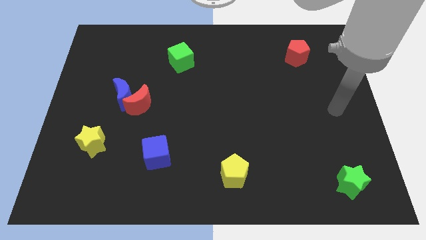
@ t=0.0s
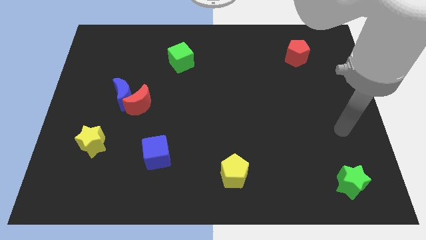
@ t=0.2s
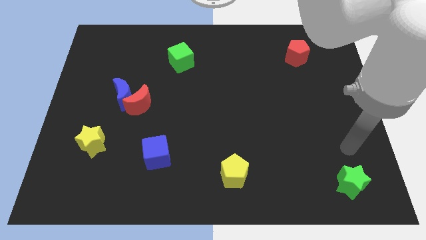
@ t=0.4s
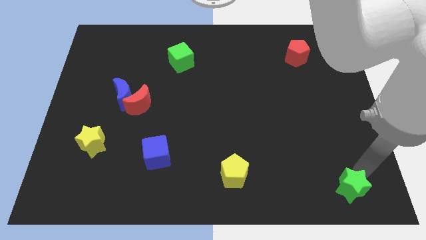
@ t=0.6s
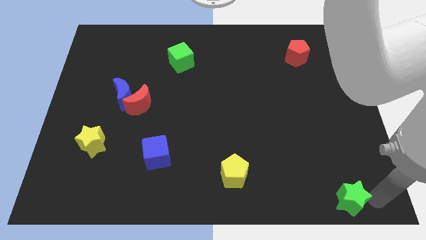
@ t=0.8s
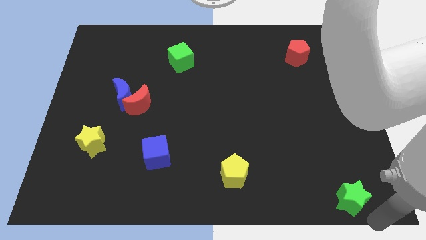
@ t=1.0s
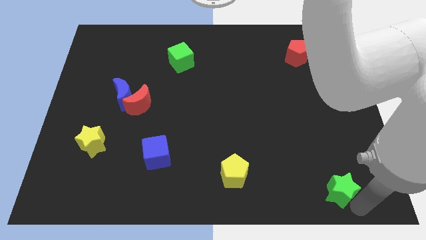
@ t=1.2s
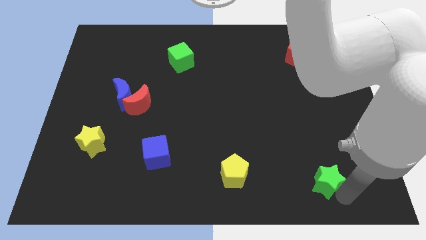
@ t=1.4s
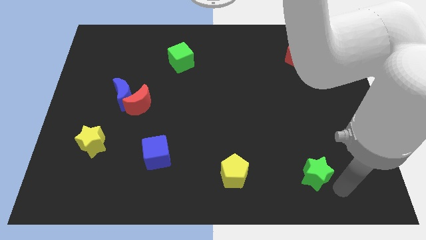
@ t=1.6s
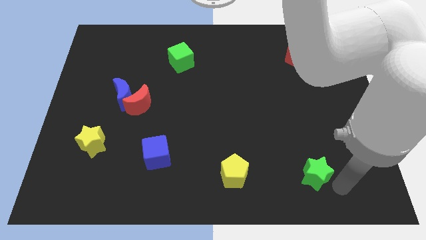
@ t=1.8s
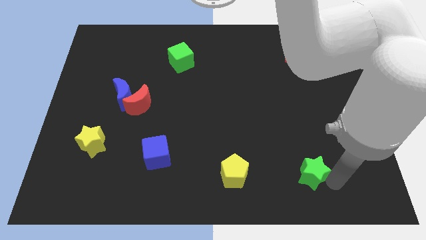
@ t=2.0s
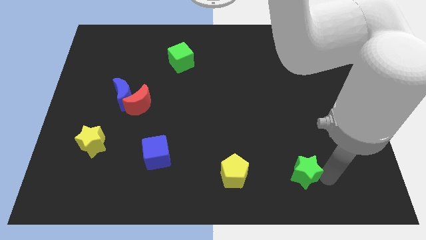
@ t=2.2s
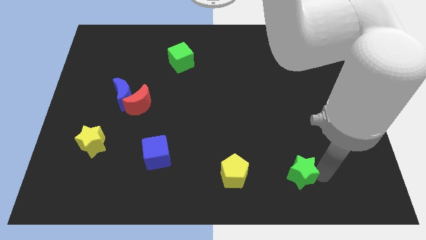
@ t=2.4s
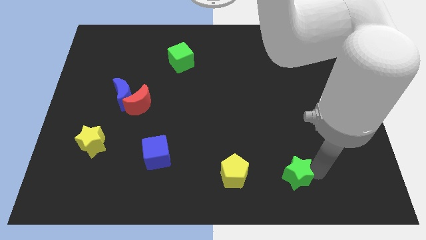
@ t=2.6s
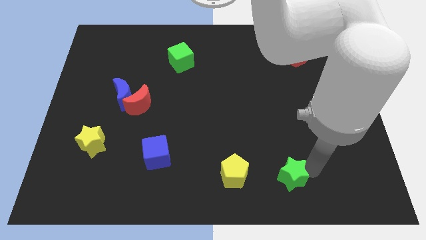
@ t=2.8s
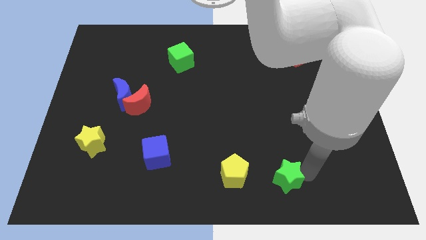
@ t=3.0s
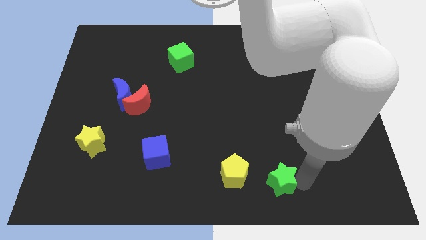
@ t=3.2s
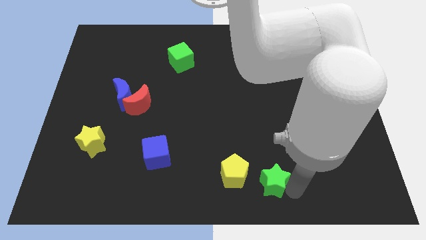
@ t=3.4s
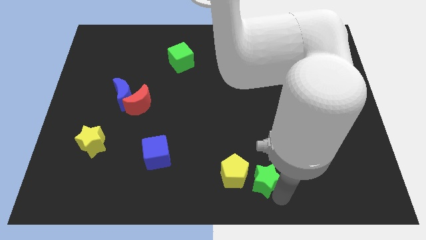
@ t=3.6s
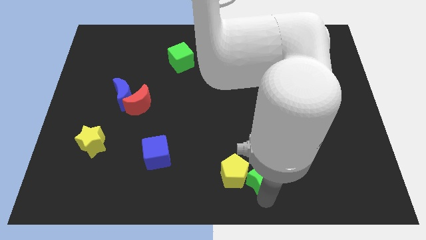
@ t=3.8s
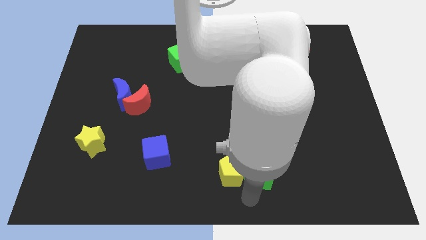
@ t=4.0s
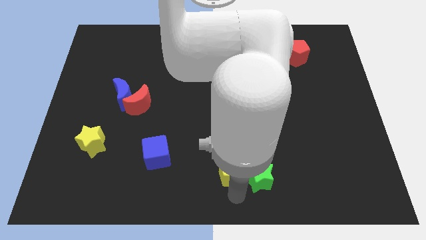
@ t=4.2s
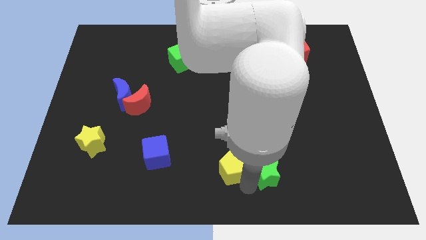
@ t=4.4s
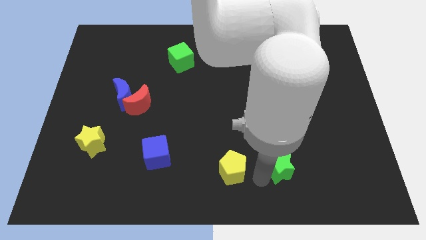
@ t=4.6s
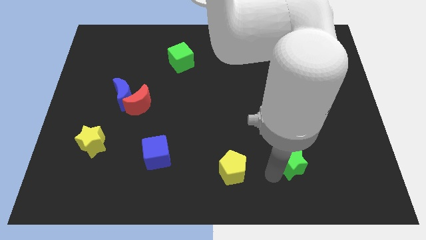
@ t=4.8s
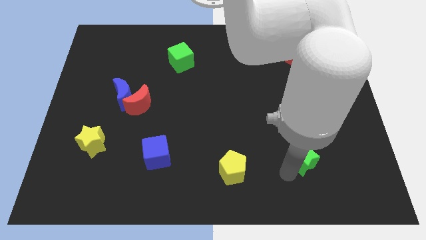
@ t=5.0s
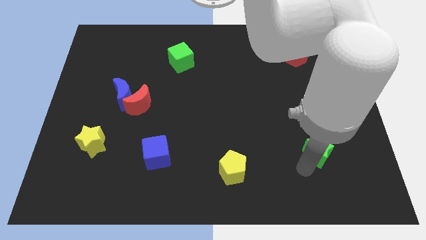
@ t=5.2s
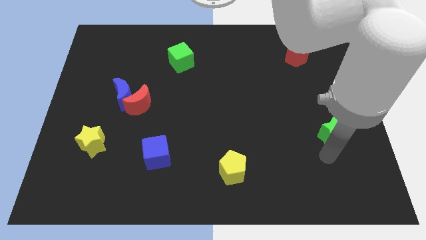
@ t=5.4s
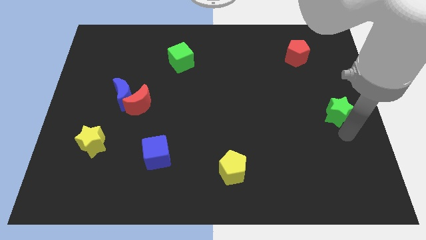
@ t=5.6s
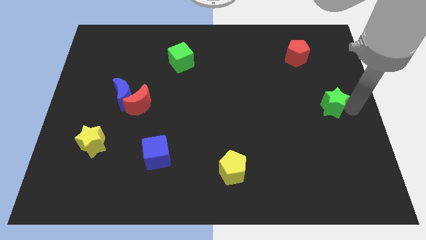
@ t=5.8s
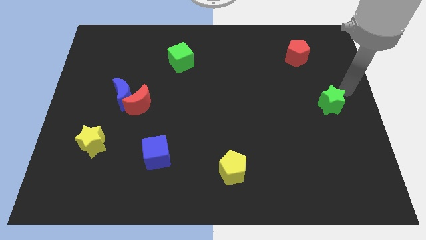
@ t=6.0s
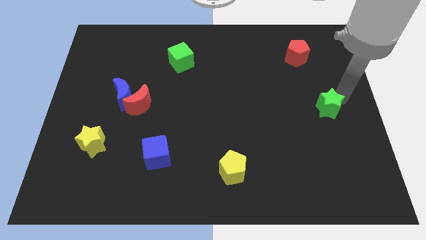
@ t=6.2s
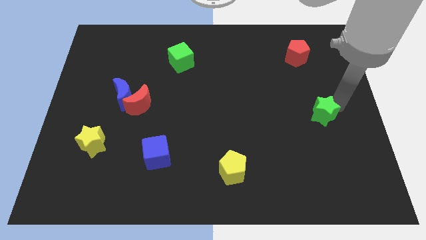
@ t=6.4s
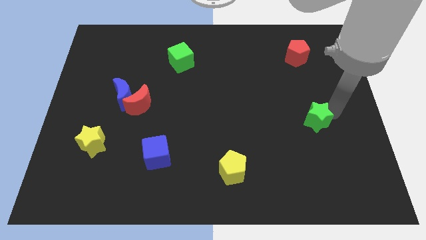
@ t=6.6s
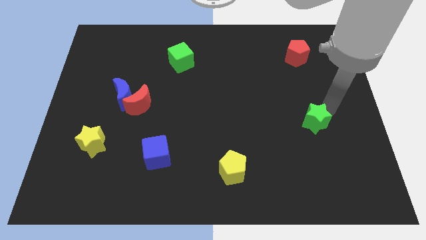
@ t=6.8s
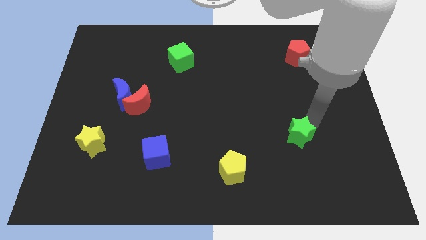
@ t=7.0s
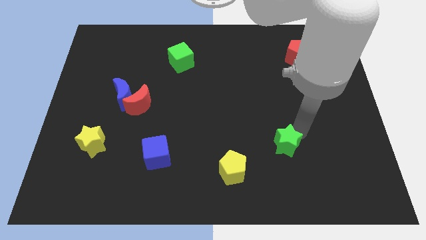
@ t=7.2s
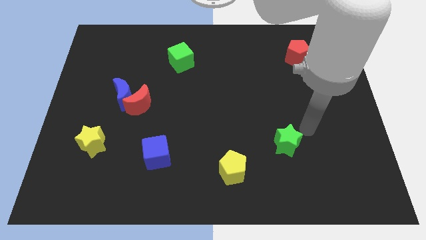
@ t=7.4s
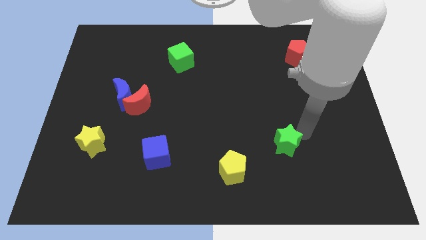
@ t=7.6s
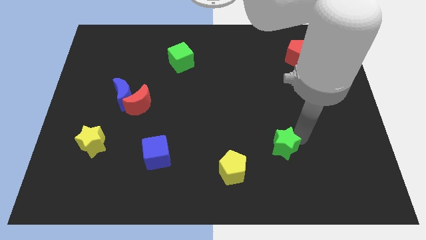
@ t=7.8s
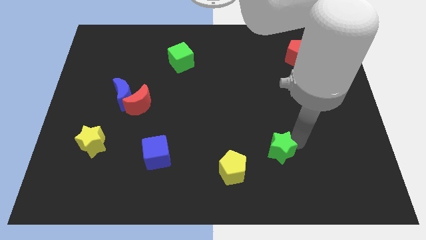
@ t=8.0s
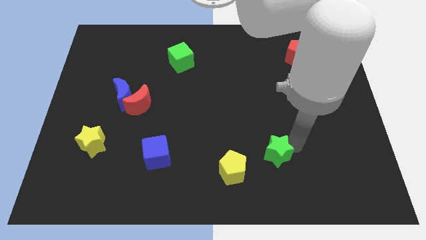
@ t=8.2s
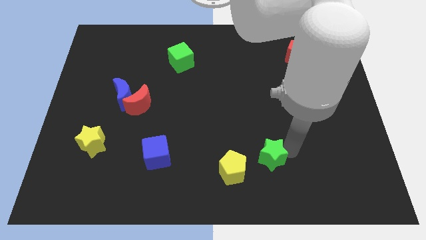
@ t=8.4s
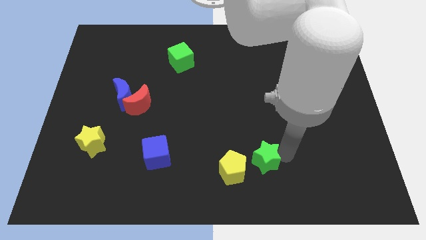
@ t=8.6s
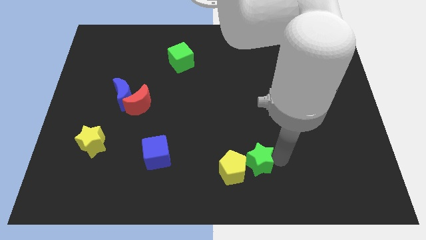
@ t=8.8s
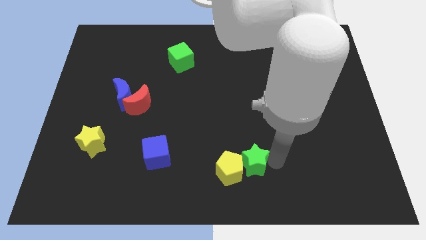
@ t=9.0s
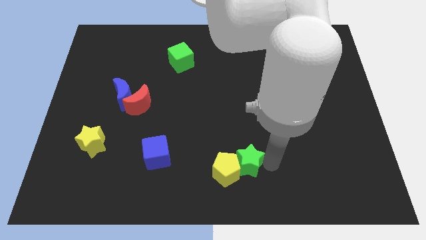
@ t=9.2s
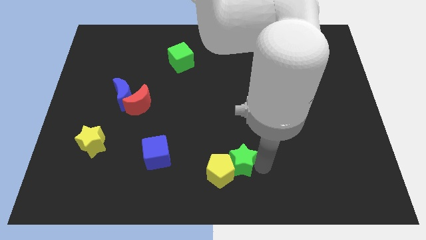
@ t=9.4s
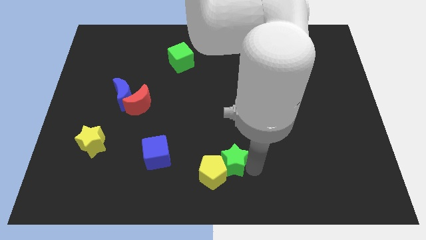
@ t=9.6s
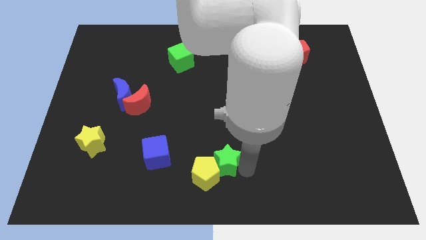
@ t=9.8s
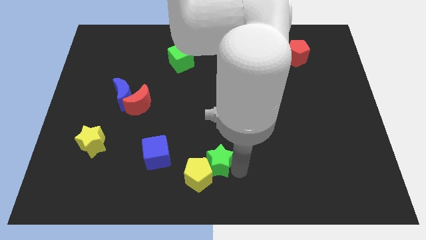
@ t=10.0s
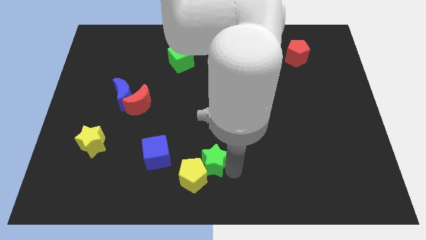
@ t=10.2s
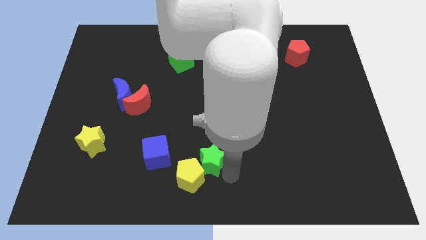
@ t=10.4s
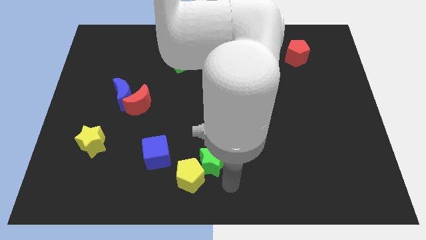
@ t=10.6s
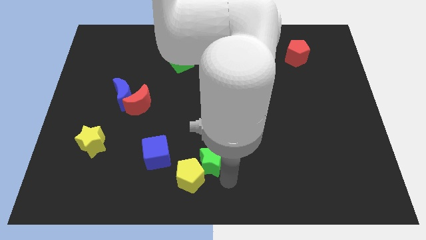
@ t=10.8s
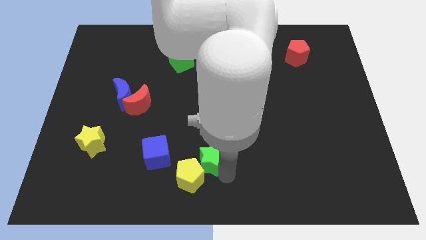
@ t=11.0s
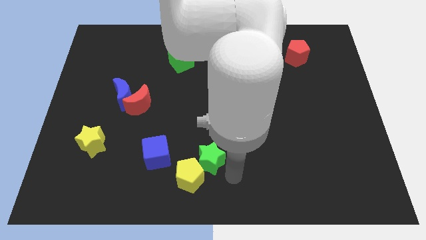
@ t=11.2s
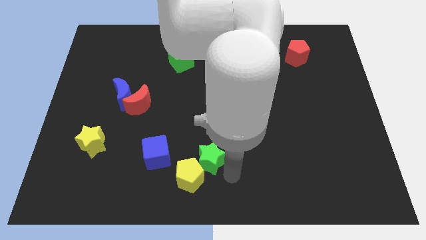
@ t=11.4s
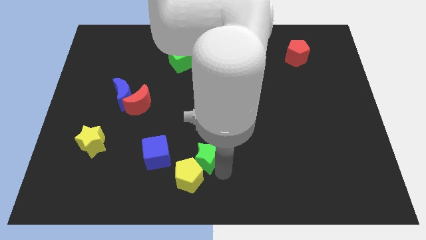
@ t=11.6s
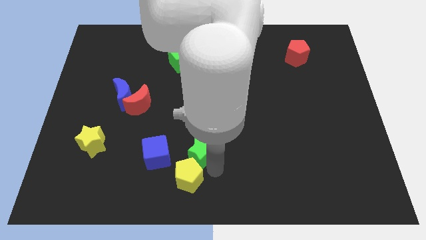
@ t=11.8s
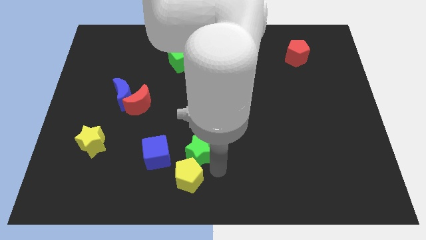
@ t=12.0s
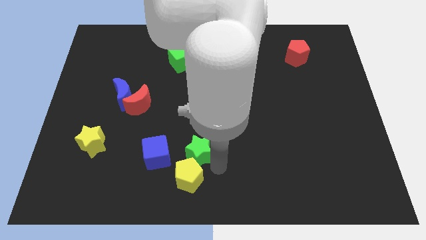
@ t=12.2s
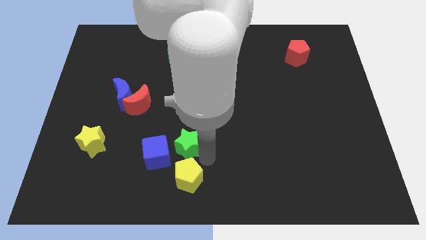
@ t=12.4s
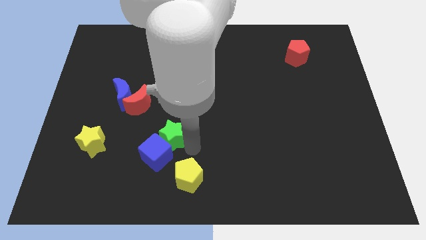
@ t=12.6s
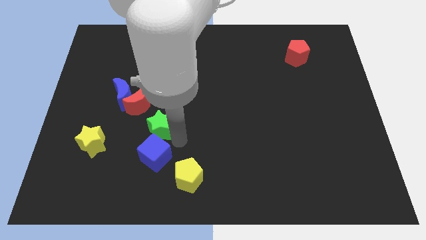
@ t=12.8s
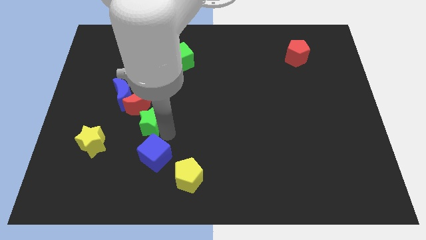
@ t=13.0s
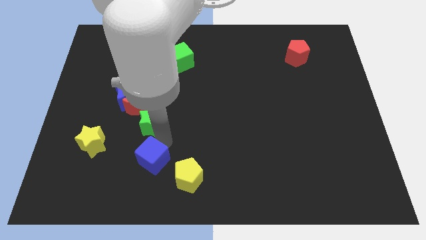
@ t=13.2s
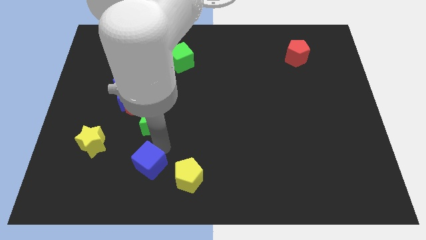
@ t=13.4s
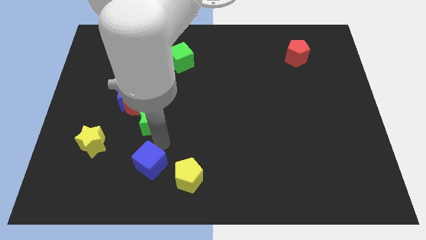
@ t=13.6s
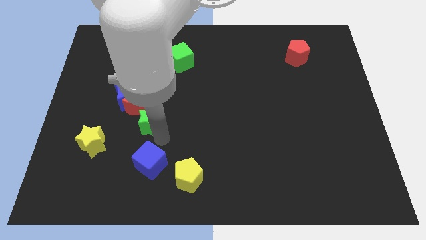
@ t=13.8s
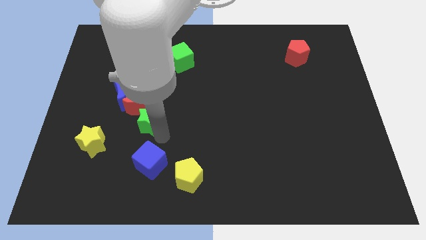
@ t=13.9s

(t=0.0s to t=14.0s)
slide the green star towards the red moon
